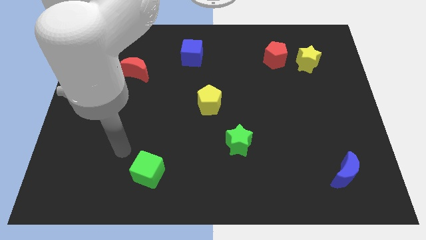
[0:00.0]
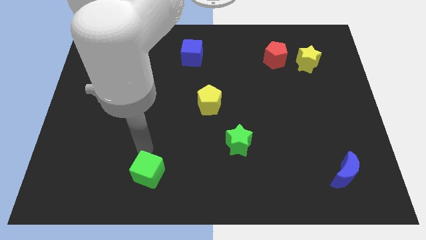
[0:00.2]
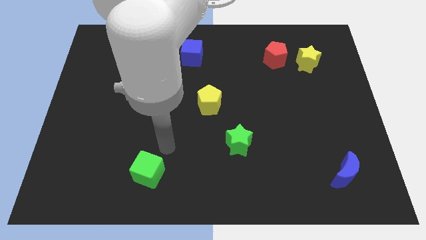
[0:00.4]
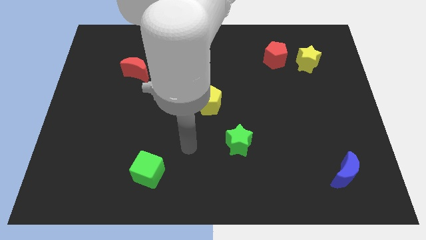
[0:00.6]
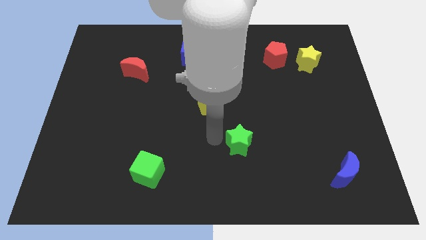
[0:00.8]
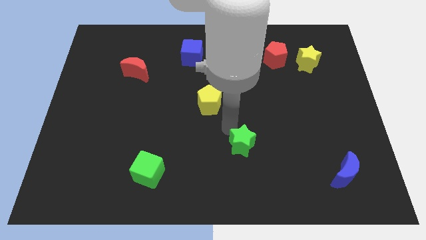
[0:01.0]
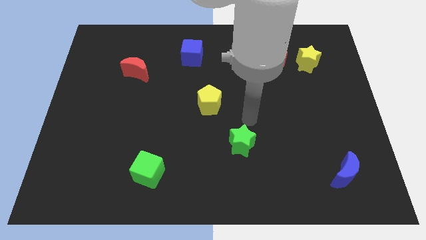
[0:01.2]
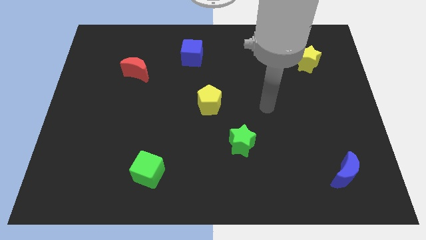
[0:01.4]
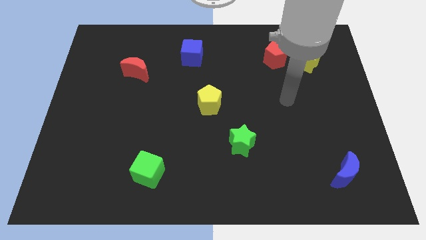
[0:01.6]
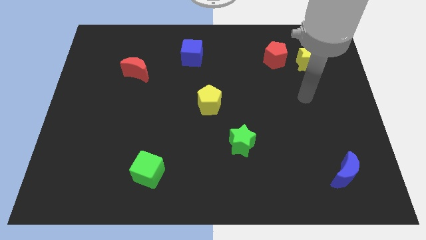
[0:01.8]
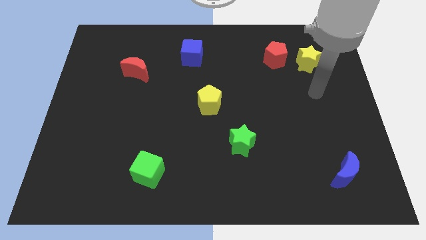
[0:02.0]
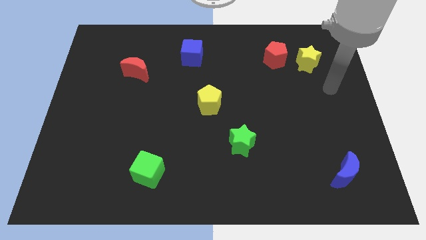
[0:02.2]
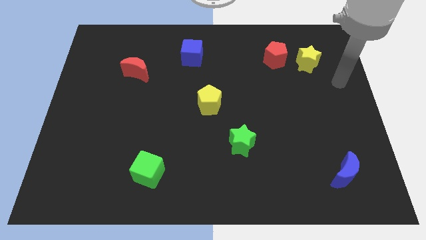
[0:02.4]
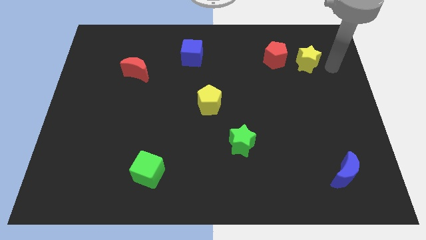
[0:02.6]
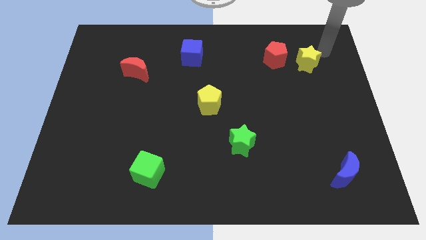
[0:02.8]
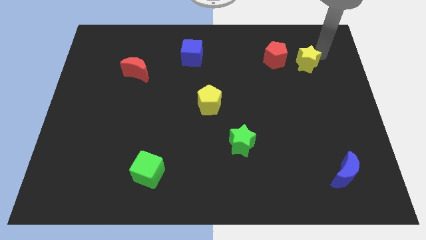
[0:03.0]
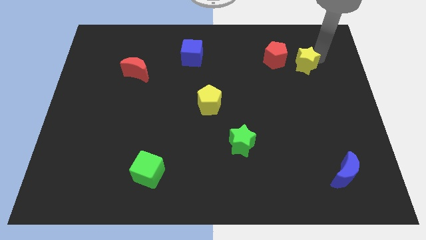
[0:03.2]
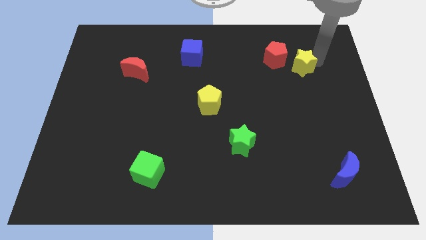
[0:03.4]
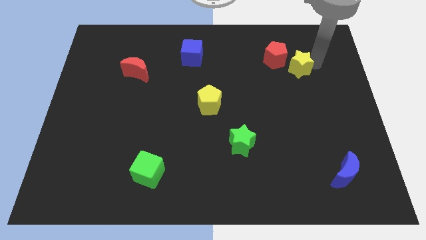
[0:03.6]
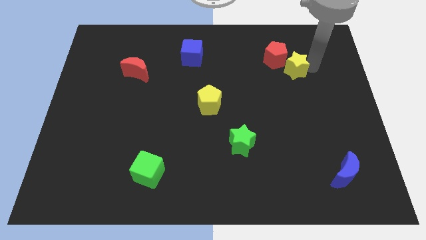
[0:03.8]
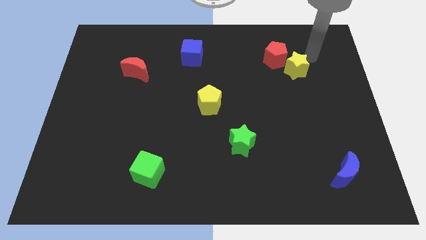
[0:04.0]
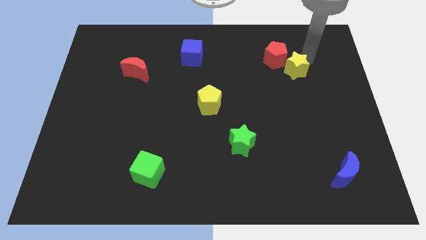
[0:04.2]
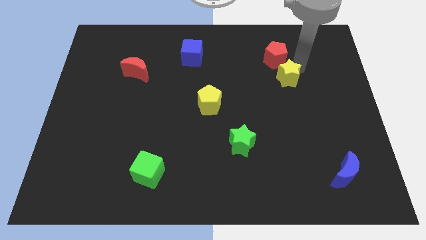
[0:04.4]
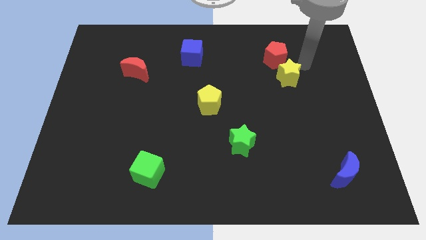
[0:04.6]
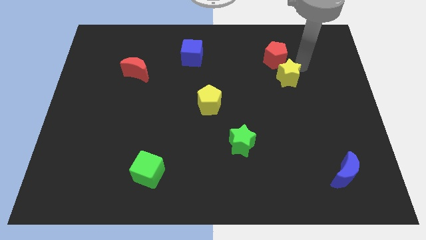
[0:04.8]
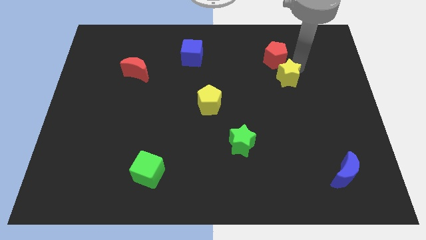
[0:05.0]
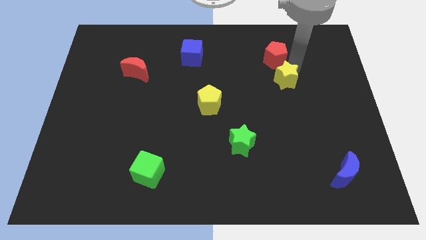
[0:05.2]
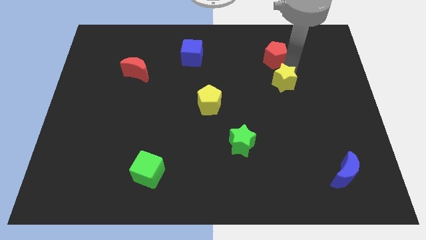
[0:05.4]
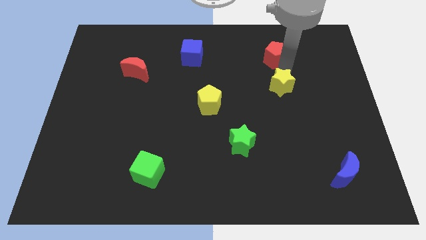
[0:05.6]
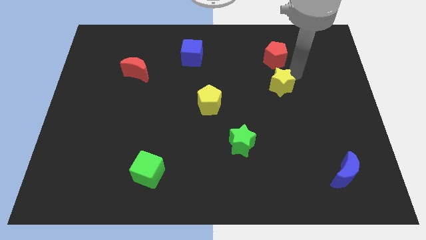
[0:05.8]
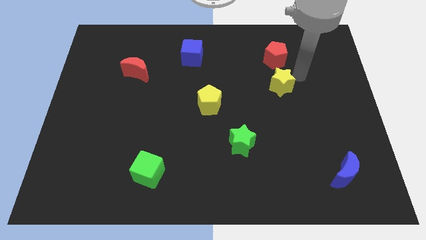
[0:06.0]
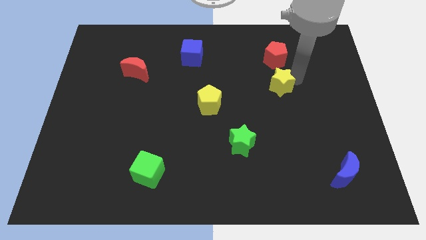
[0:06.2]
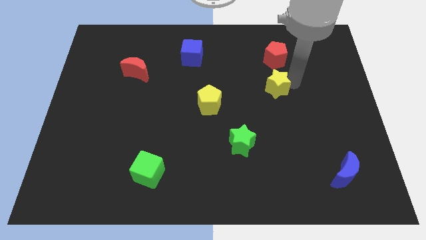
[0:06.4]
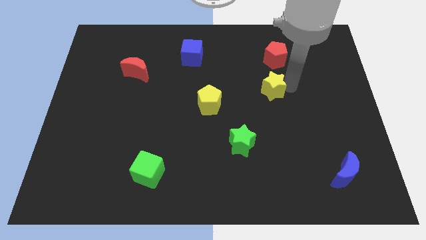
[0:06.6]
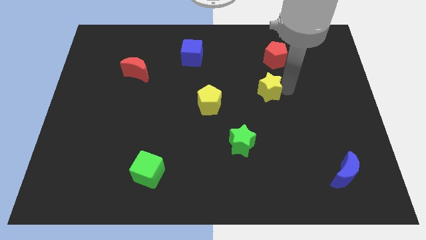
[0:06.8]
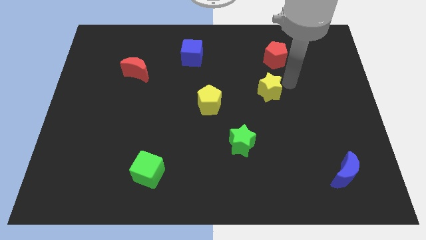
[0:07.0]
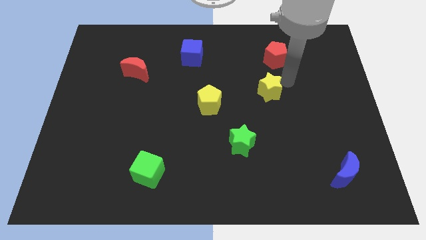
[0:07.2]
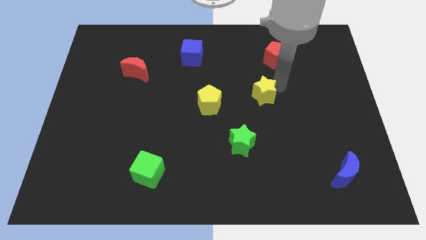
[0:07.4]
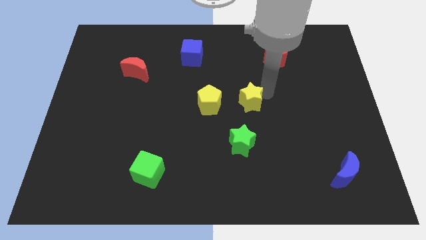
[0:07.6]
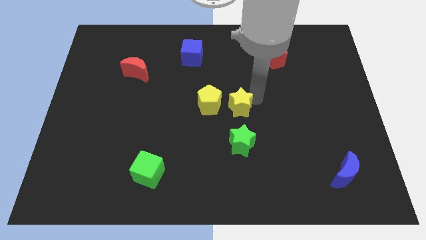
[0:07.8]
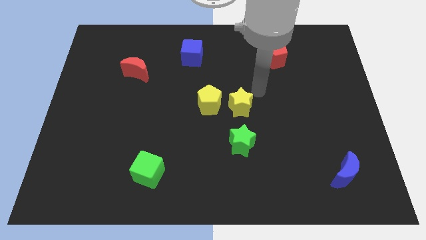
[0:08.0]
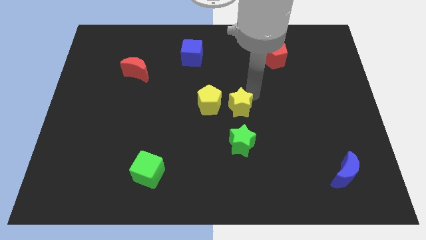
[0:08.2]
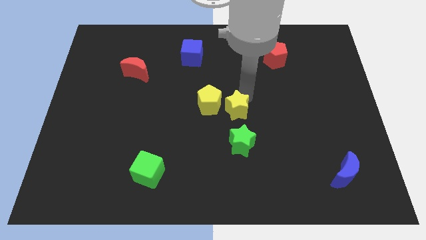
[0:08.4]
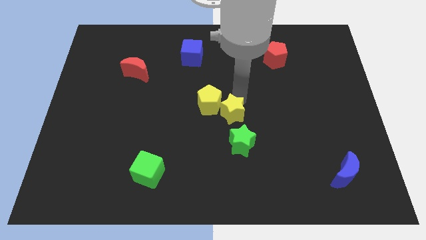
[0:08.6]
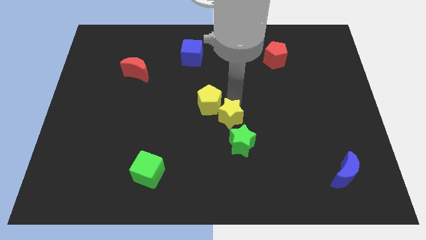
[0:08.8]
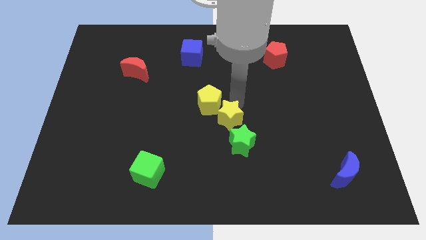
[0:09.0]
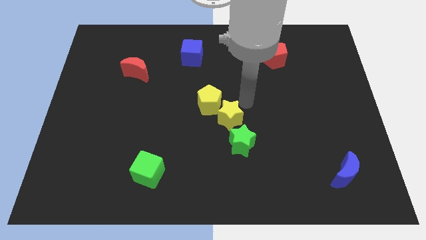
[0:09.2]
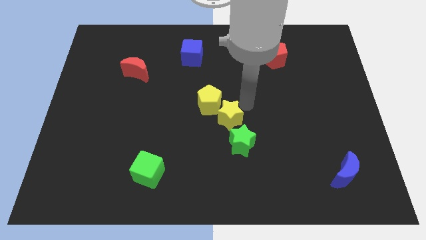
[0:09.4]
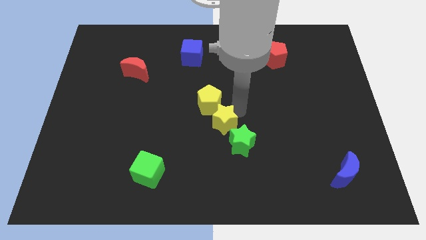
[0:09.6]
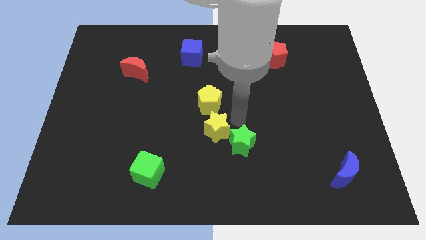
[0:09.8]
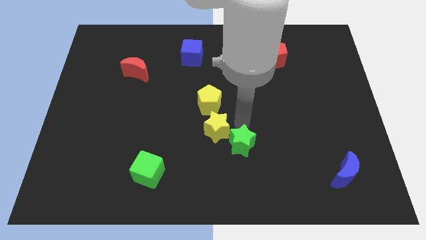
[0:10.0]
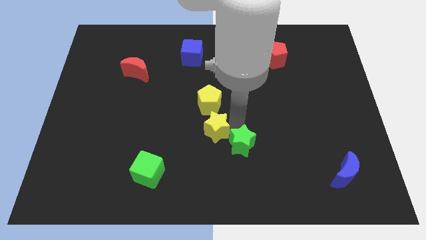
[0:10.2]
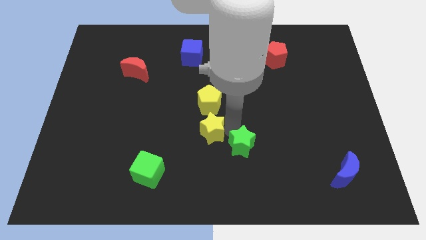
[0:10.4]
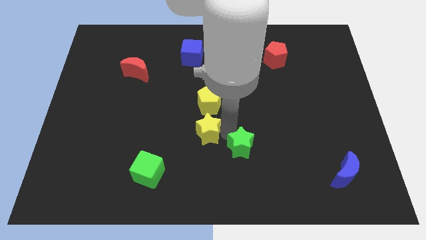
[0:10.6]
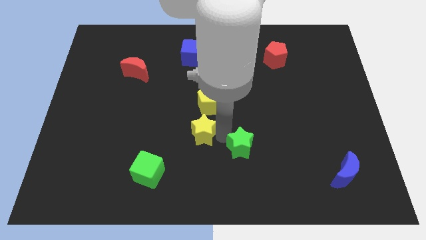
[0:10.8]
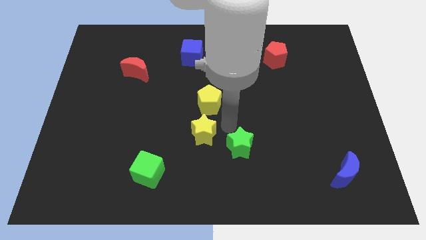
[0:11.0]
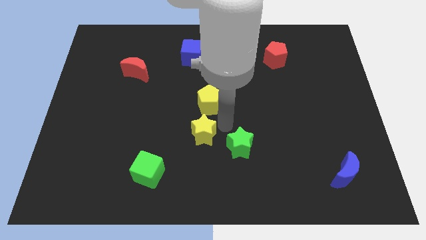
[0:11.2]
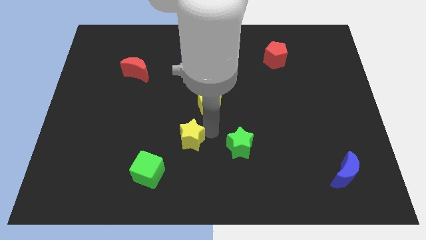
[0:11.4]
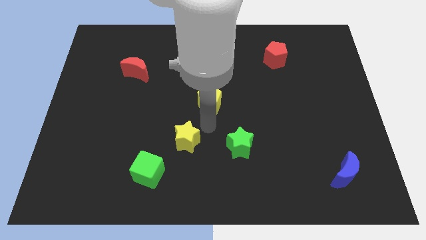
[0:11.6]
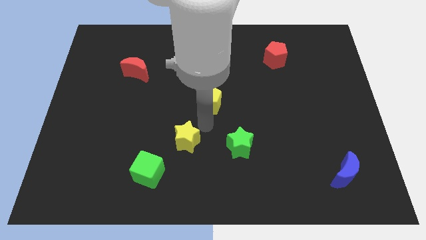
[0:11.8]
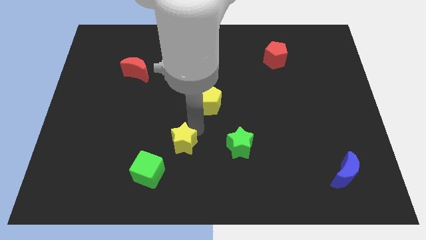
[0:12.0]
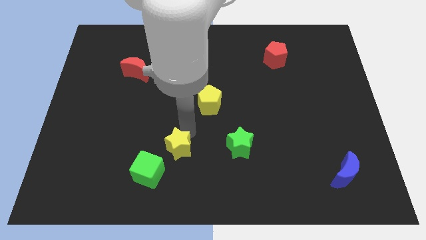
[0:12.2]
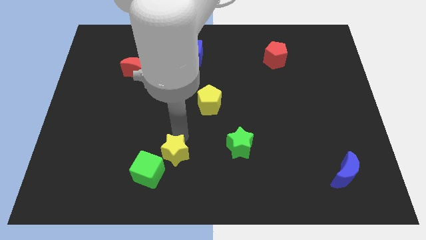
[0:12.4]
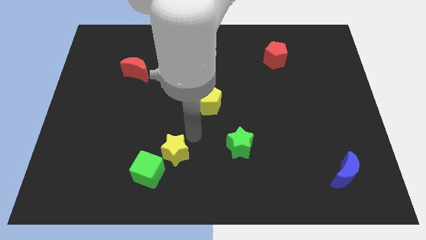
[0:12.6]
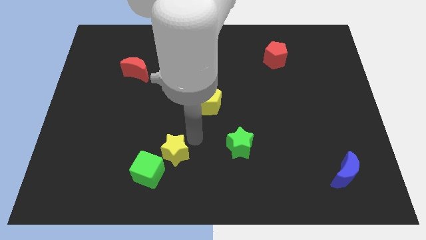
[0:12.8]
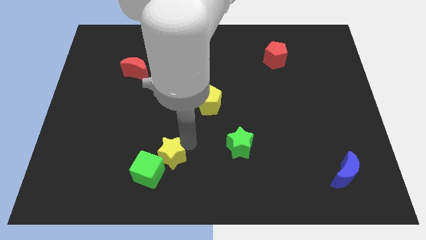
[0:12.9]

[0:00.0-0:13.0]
put the yellow star to the green cube
